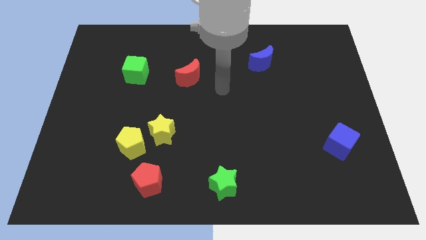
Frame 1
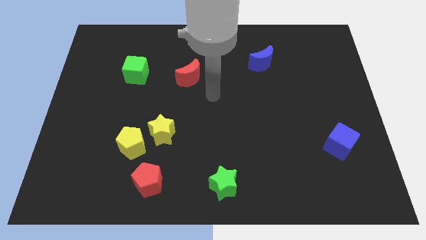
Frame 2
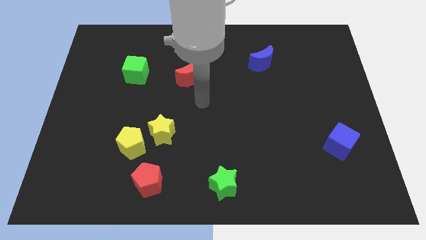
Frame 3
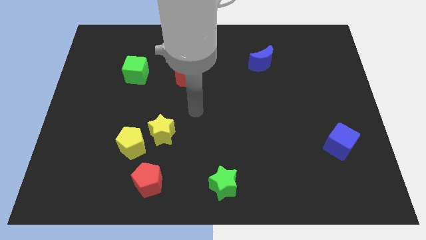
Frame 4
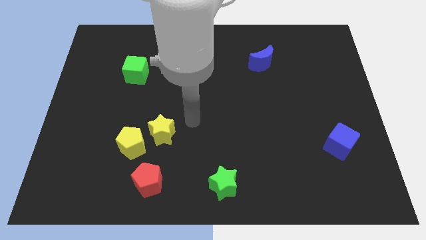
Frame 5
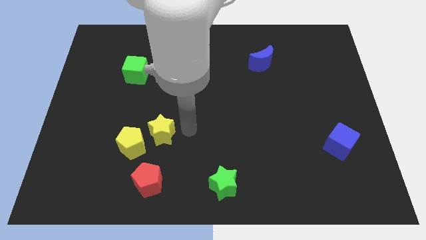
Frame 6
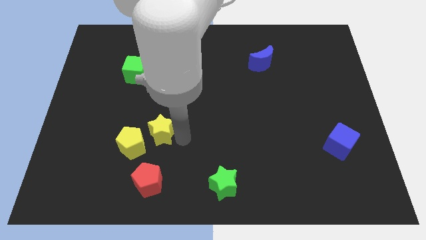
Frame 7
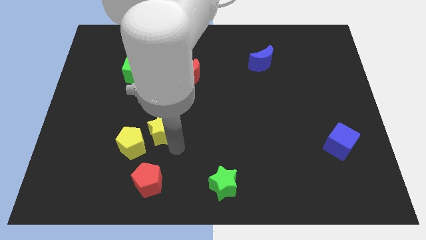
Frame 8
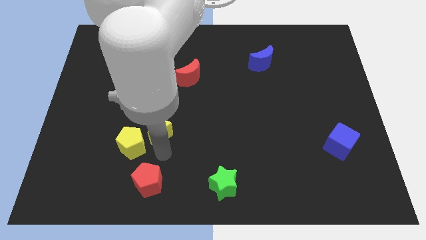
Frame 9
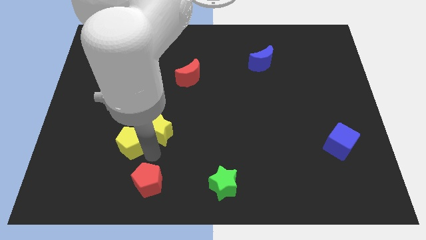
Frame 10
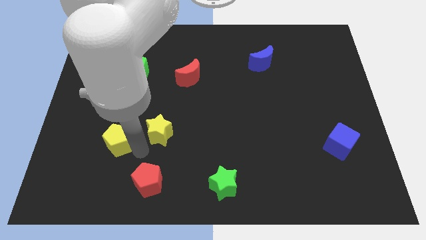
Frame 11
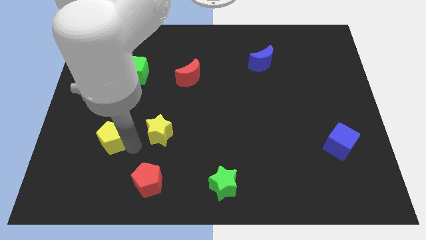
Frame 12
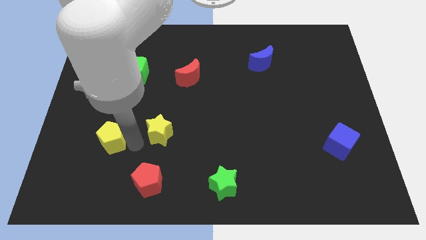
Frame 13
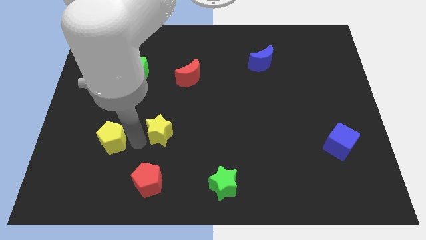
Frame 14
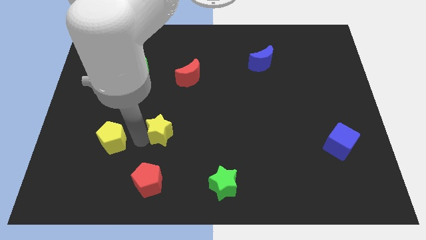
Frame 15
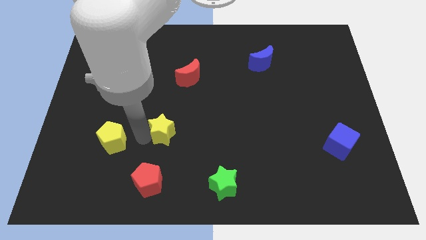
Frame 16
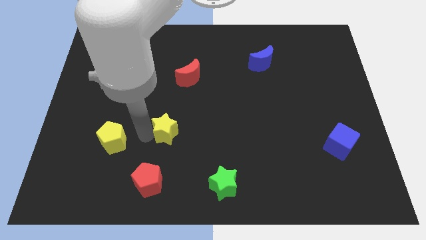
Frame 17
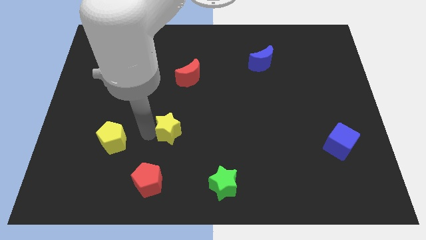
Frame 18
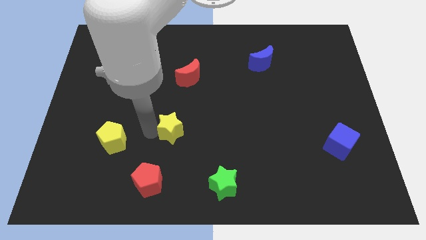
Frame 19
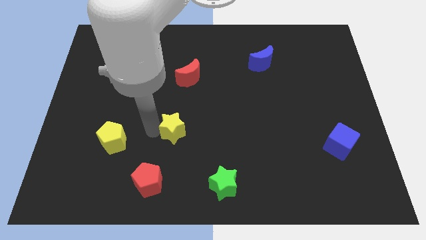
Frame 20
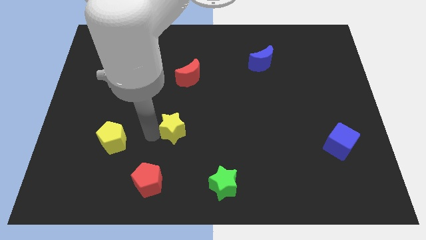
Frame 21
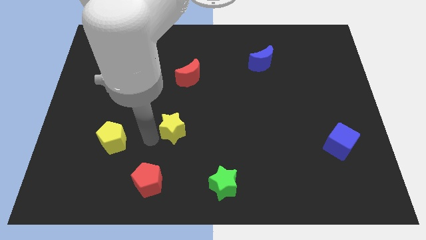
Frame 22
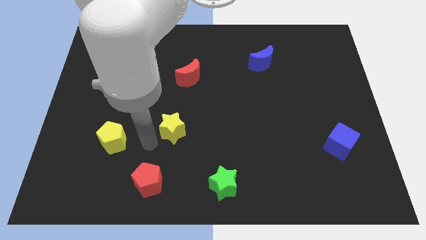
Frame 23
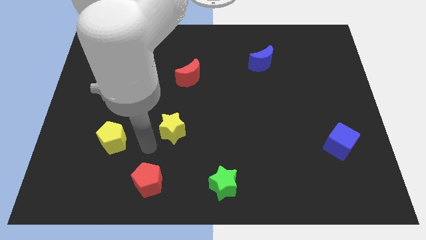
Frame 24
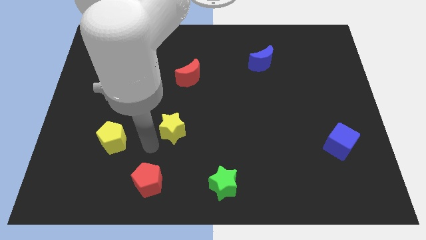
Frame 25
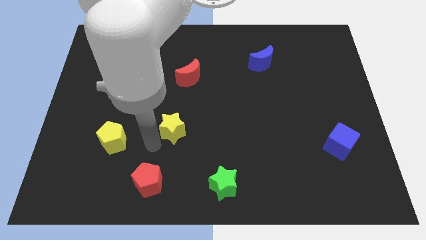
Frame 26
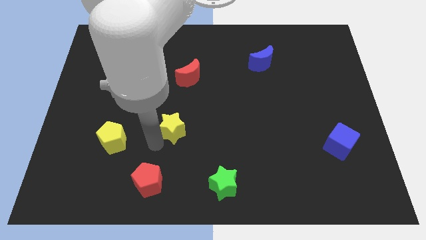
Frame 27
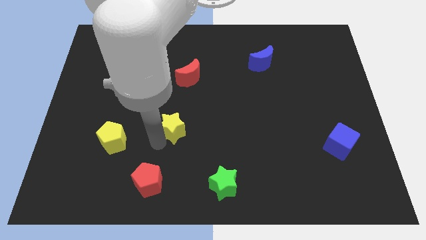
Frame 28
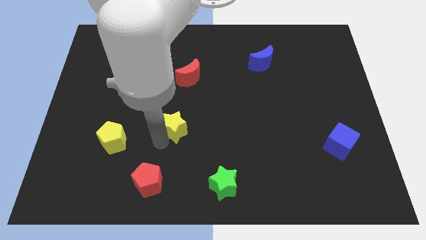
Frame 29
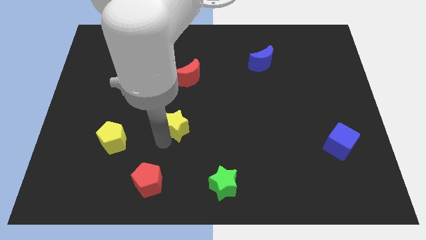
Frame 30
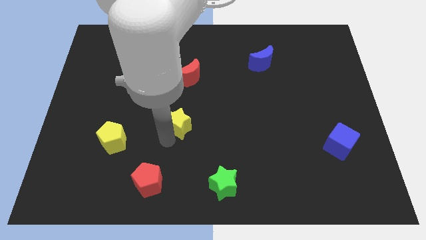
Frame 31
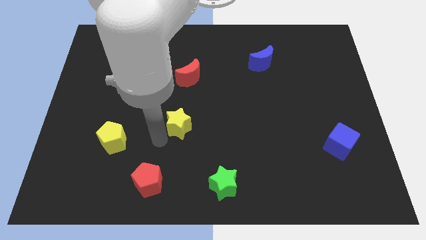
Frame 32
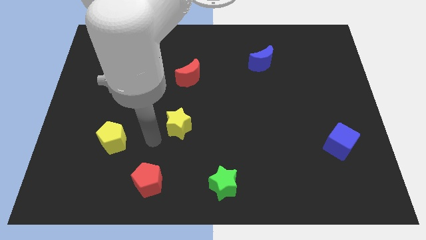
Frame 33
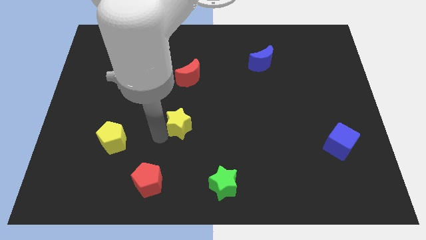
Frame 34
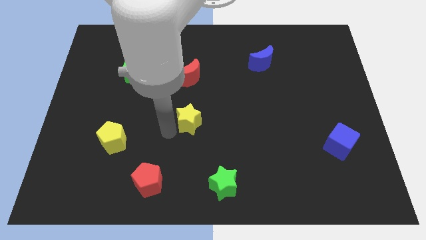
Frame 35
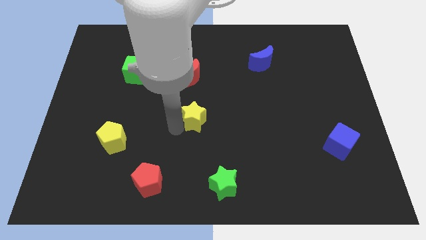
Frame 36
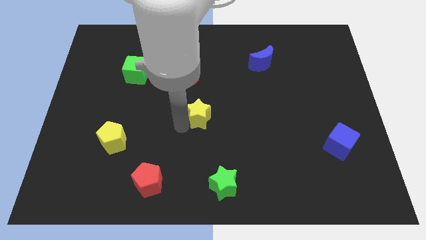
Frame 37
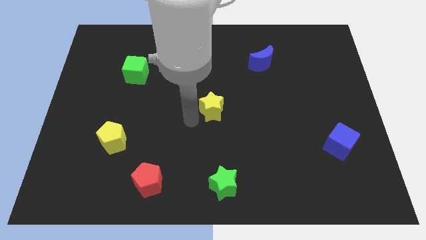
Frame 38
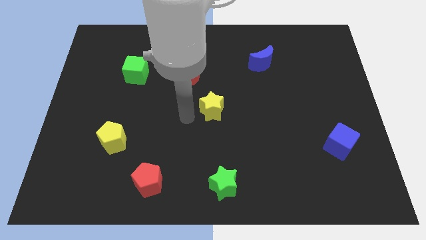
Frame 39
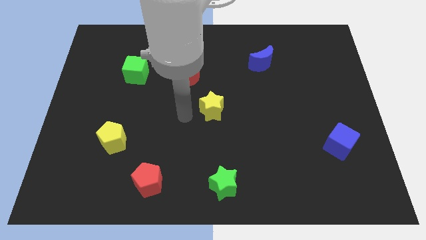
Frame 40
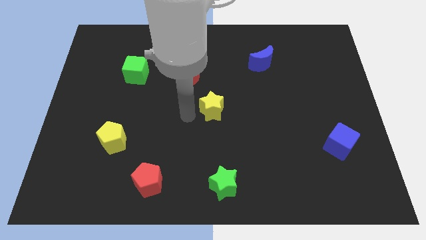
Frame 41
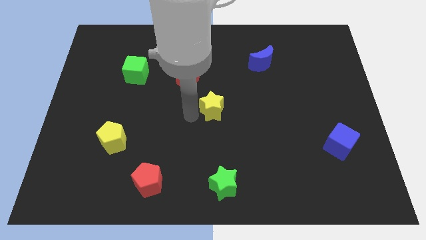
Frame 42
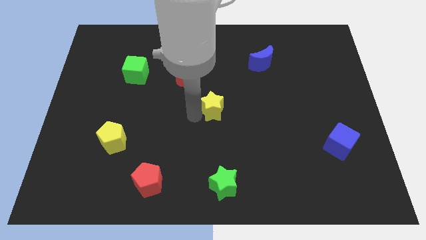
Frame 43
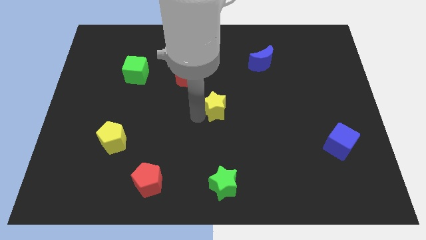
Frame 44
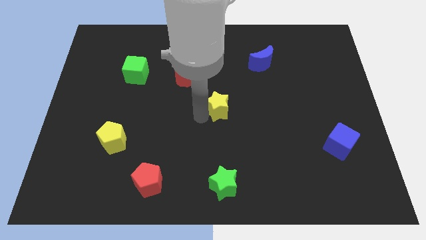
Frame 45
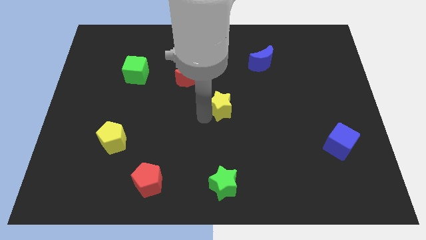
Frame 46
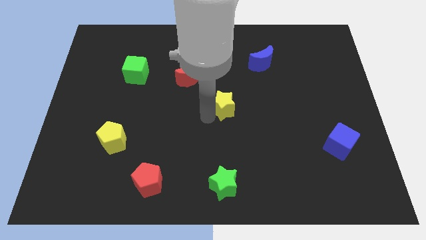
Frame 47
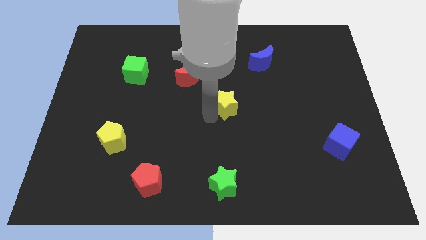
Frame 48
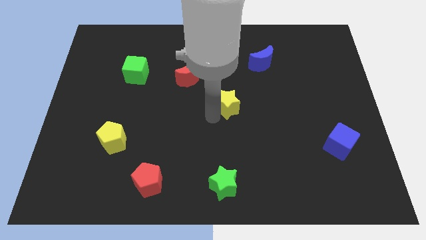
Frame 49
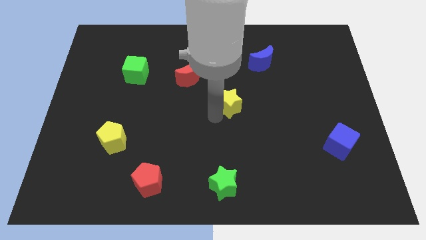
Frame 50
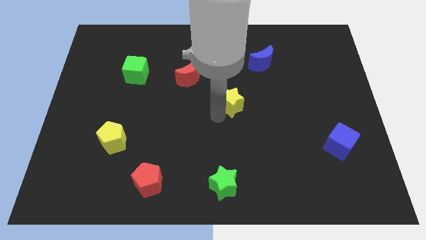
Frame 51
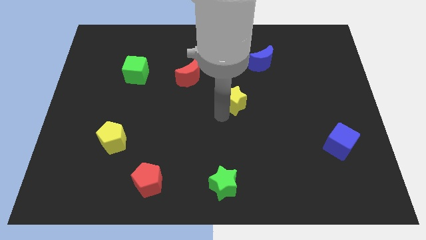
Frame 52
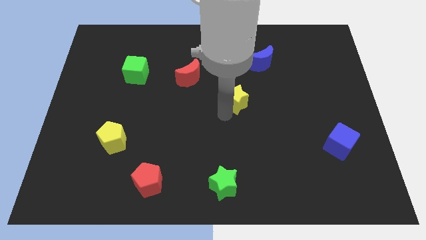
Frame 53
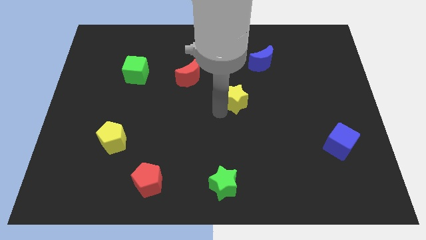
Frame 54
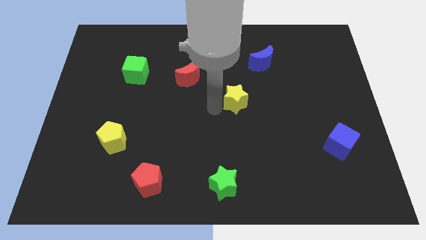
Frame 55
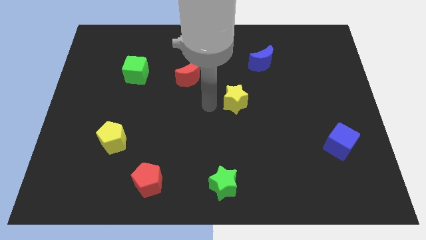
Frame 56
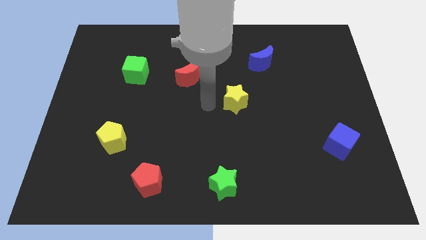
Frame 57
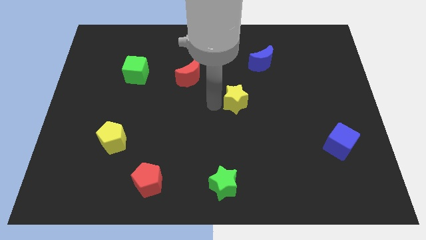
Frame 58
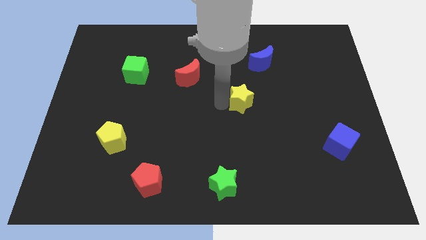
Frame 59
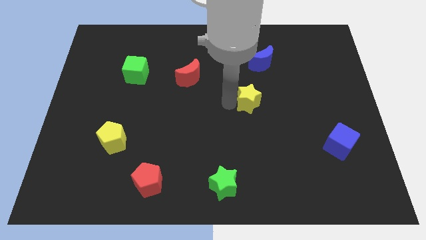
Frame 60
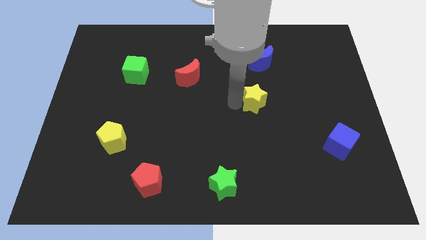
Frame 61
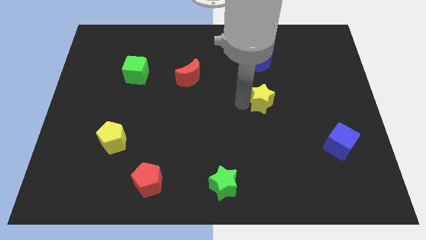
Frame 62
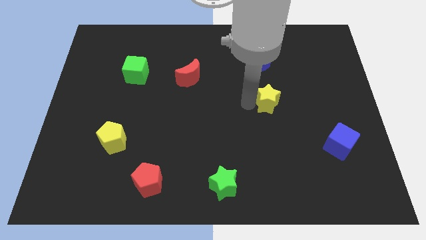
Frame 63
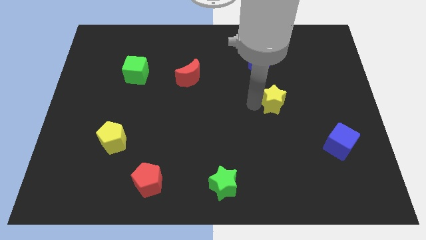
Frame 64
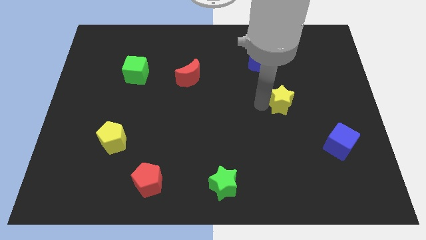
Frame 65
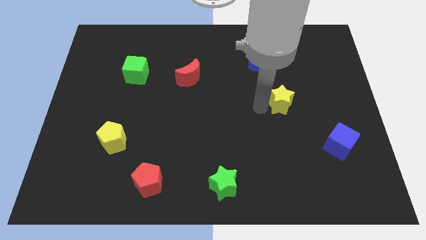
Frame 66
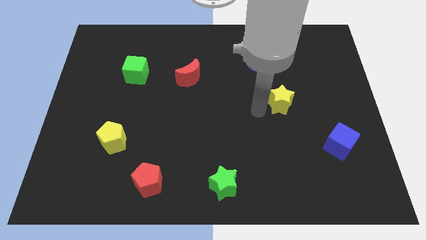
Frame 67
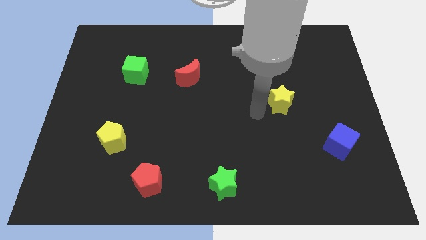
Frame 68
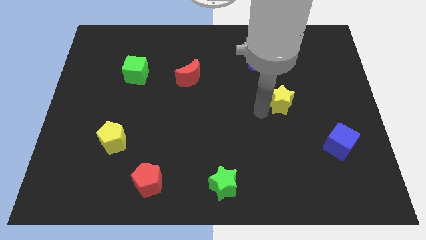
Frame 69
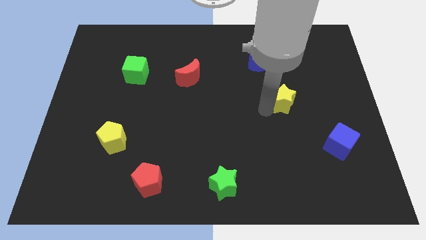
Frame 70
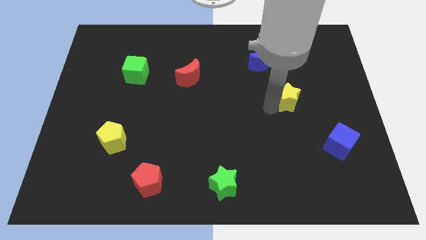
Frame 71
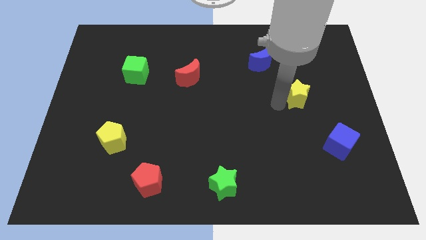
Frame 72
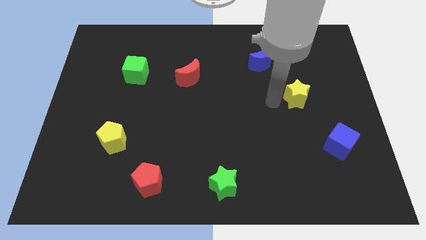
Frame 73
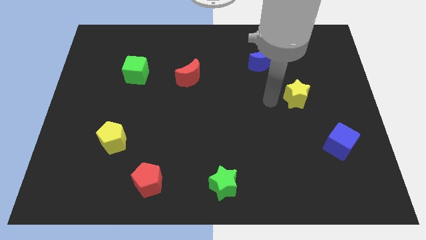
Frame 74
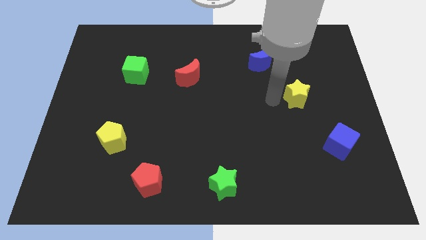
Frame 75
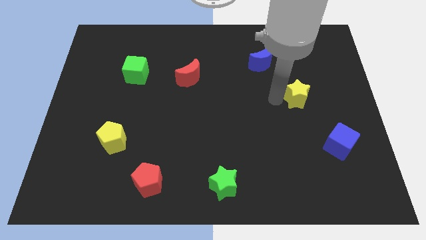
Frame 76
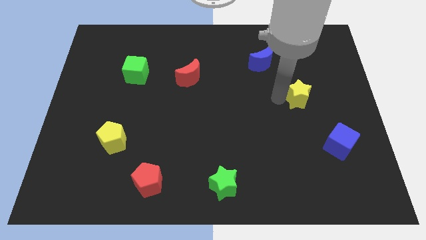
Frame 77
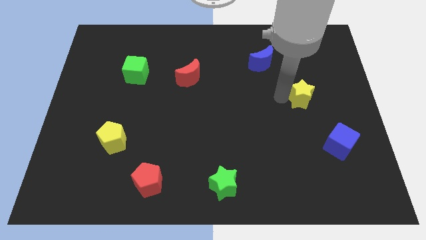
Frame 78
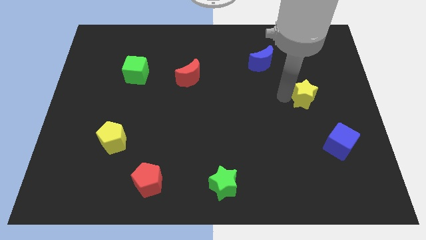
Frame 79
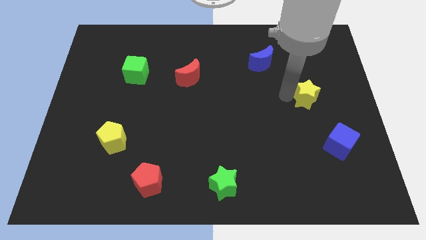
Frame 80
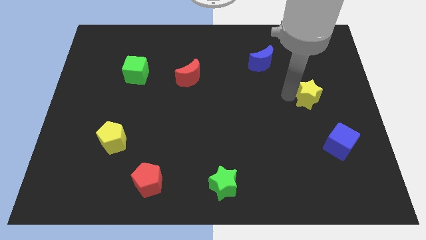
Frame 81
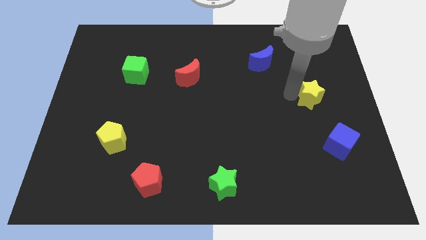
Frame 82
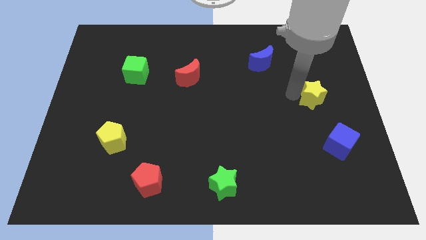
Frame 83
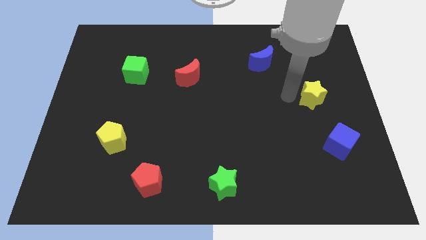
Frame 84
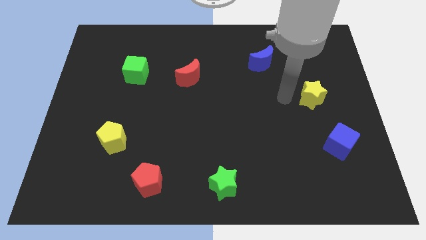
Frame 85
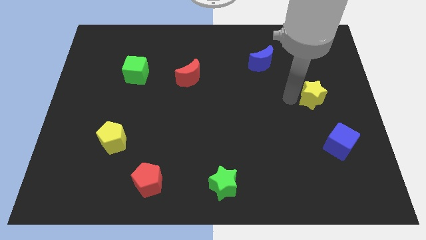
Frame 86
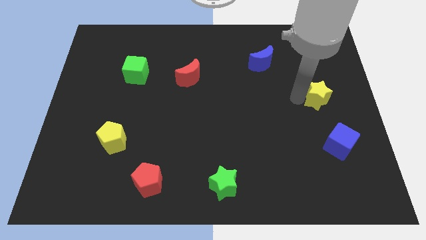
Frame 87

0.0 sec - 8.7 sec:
move the yellow star to the right side of the board
